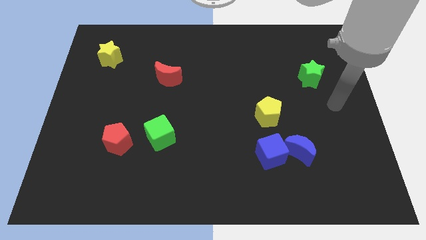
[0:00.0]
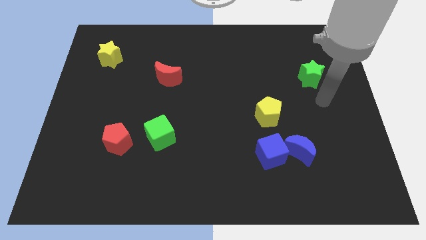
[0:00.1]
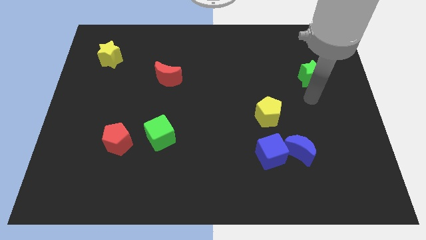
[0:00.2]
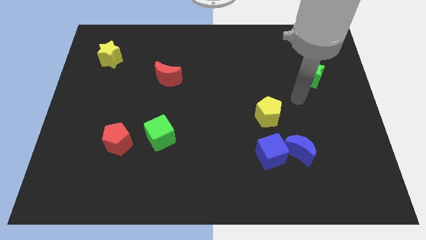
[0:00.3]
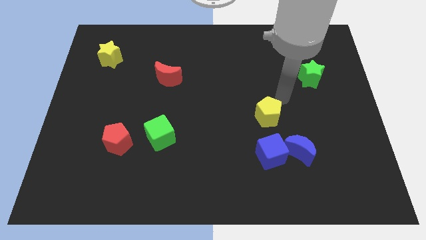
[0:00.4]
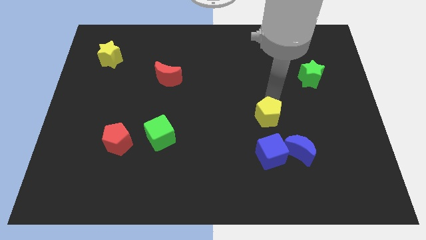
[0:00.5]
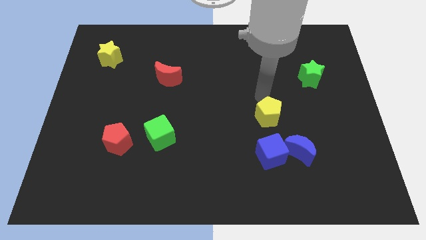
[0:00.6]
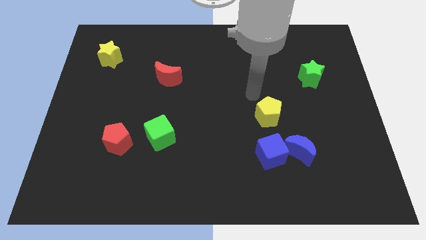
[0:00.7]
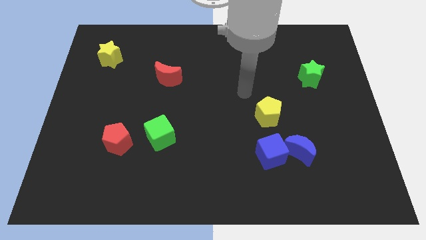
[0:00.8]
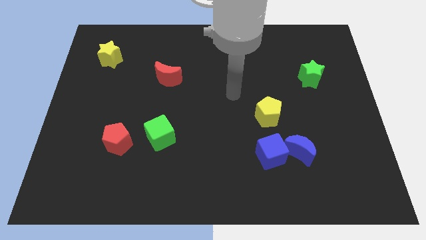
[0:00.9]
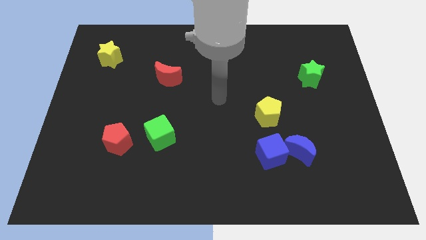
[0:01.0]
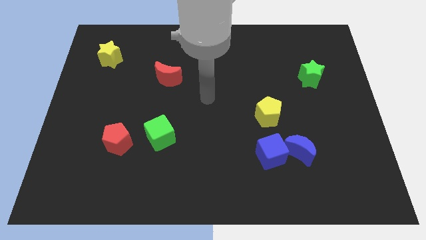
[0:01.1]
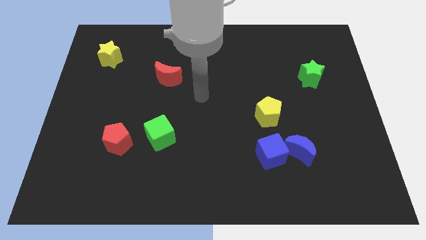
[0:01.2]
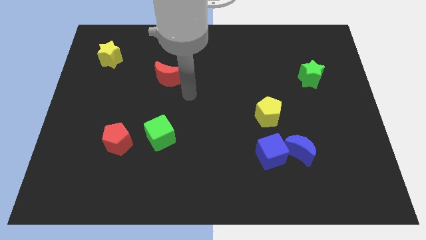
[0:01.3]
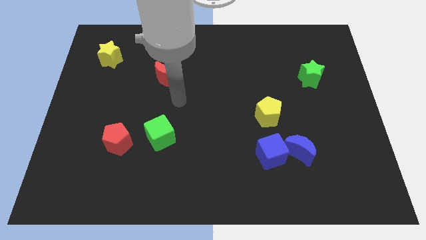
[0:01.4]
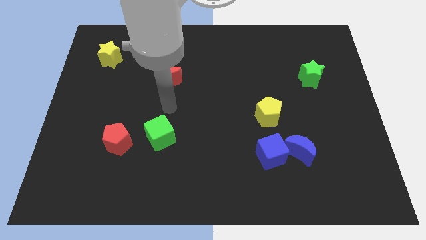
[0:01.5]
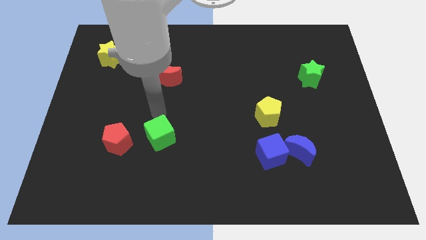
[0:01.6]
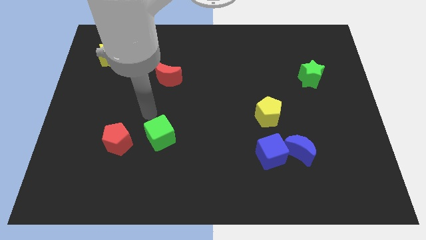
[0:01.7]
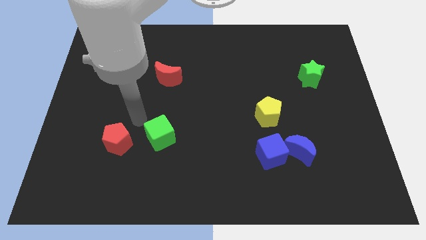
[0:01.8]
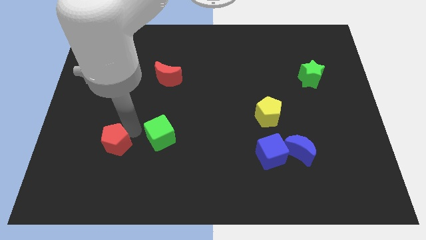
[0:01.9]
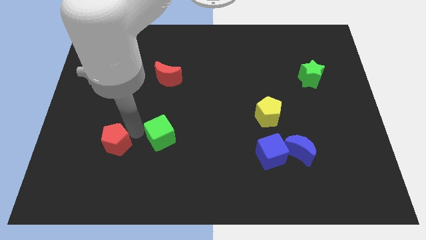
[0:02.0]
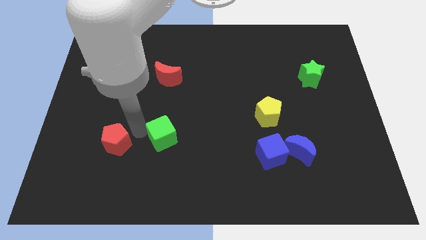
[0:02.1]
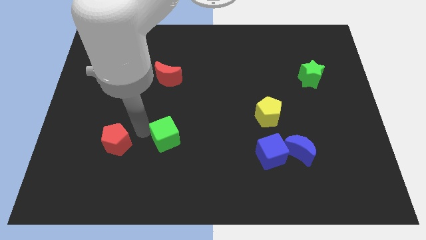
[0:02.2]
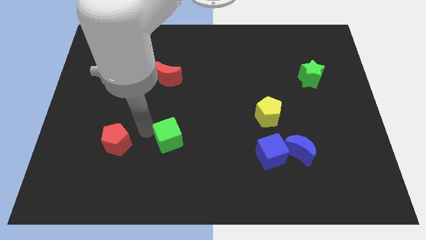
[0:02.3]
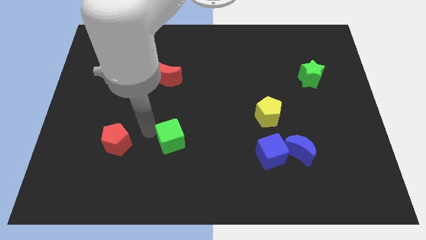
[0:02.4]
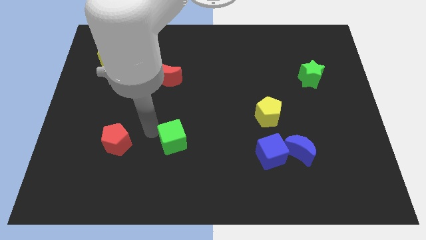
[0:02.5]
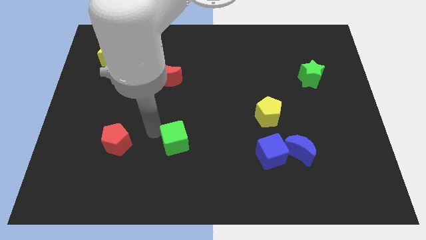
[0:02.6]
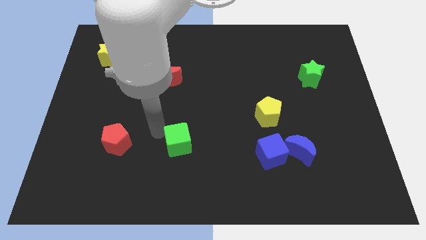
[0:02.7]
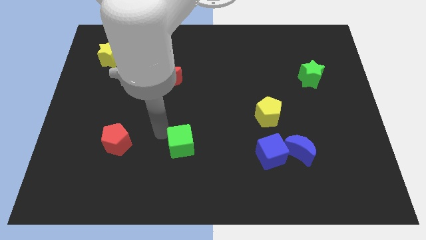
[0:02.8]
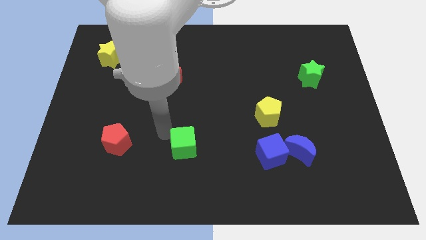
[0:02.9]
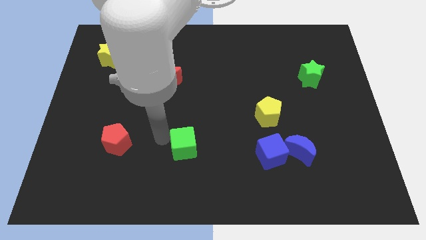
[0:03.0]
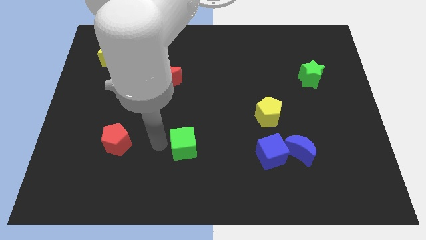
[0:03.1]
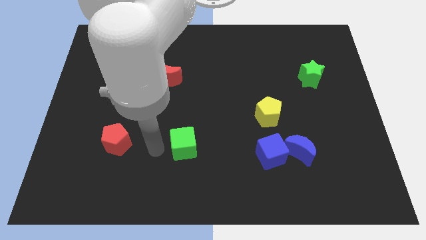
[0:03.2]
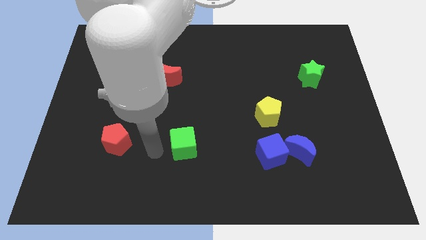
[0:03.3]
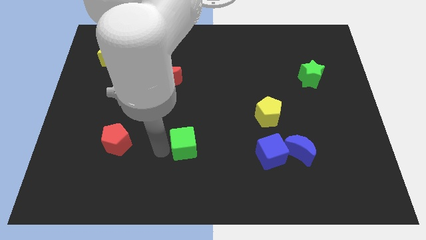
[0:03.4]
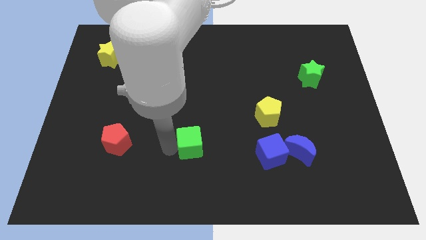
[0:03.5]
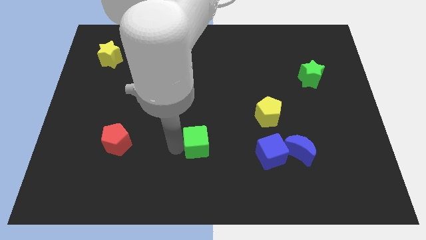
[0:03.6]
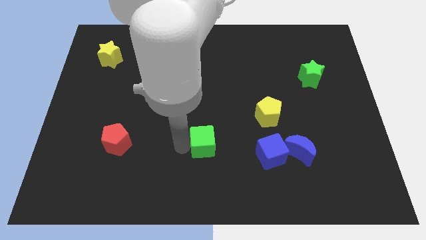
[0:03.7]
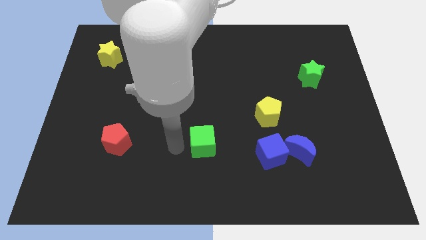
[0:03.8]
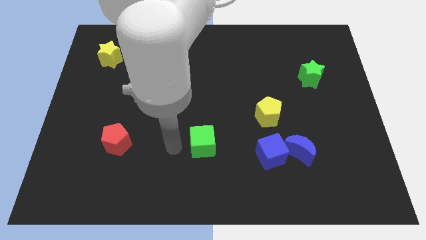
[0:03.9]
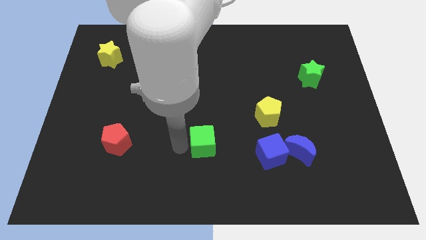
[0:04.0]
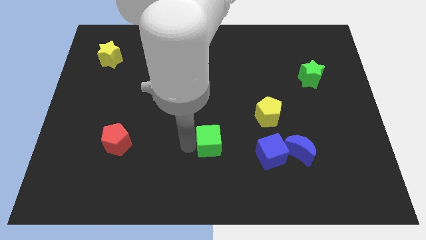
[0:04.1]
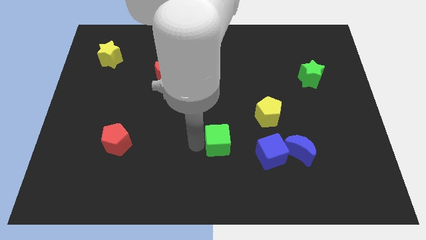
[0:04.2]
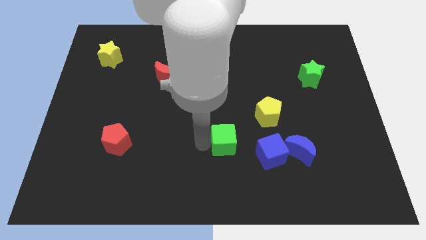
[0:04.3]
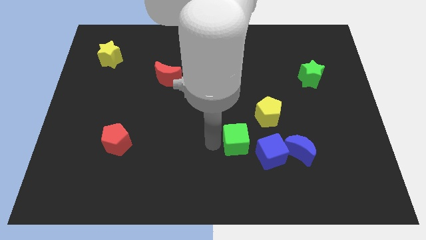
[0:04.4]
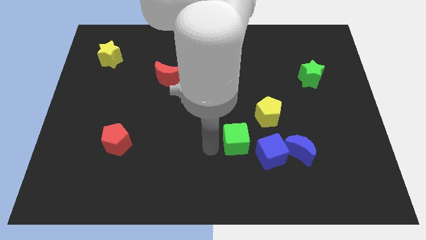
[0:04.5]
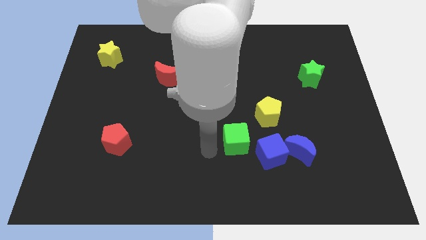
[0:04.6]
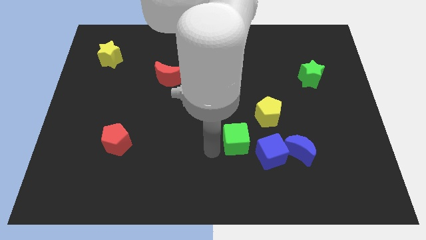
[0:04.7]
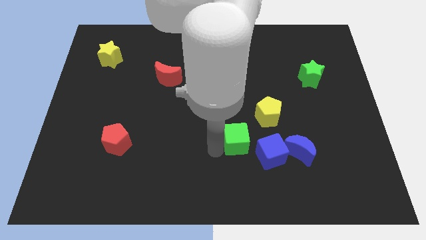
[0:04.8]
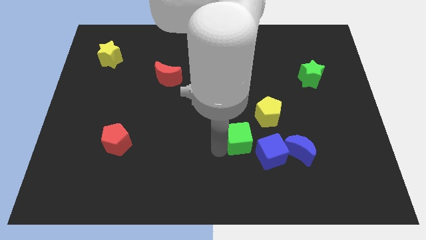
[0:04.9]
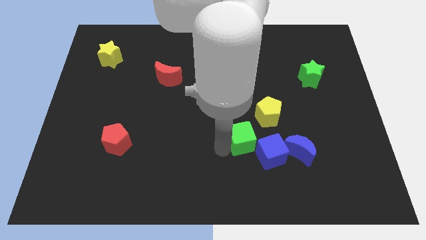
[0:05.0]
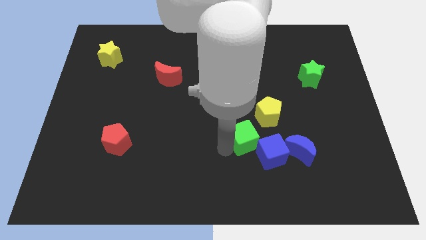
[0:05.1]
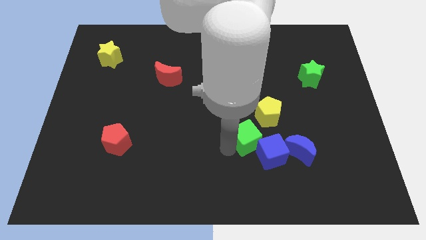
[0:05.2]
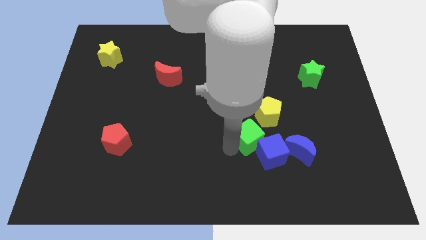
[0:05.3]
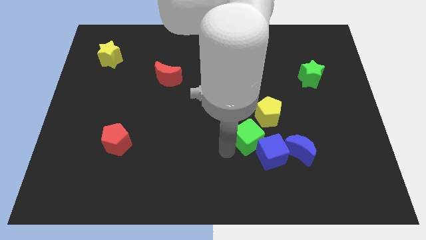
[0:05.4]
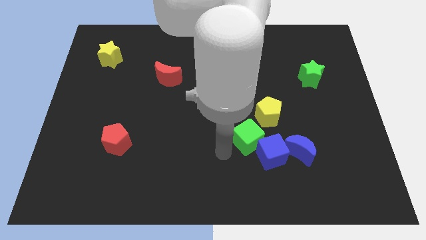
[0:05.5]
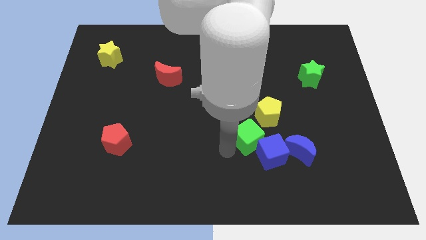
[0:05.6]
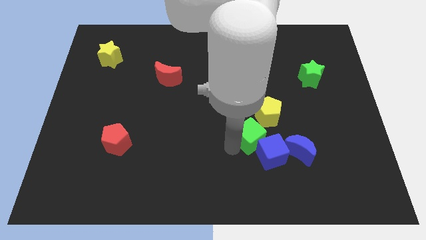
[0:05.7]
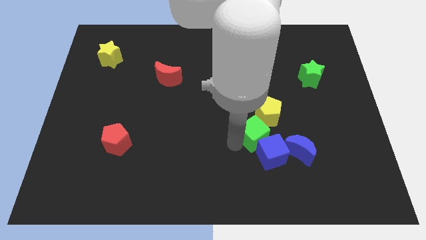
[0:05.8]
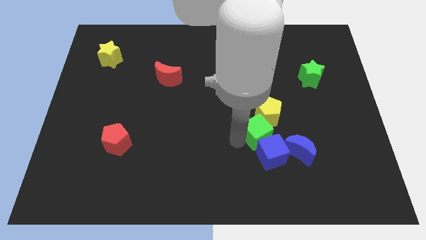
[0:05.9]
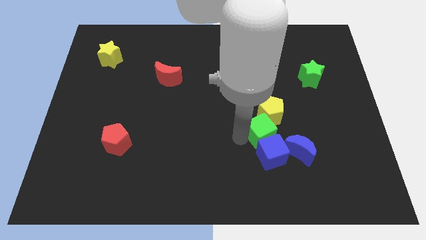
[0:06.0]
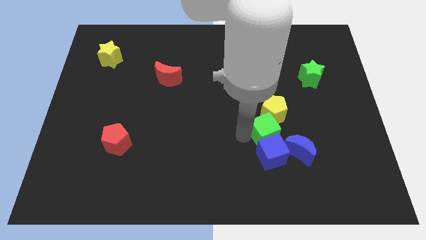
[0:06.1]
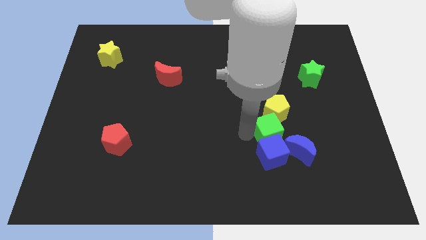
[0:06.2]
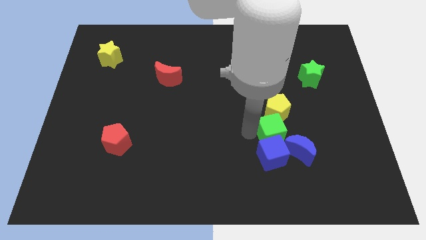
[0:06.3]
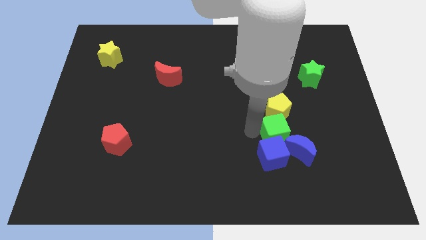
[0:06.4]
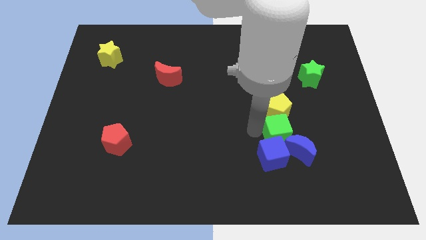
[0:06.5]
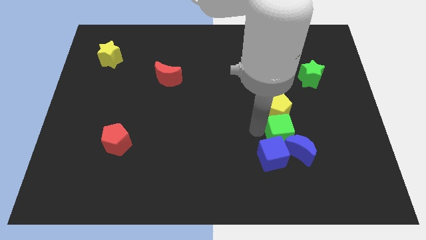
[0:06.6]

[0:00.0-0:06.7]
move the green cube to the blue moon
